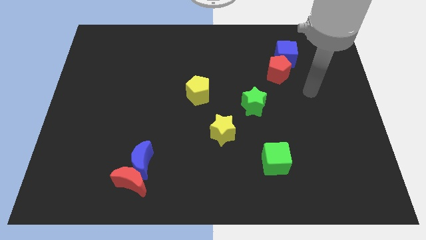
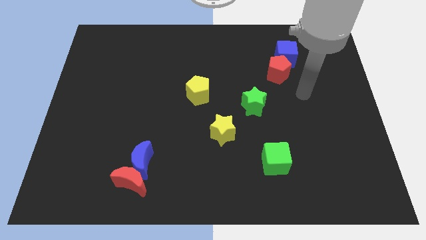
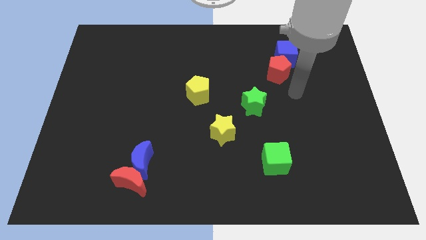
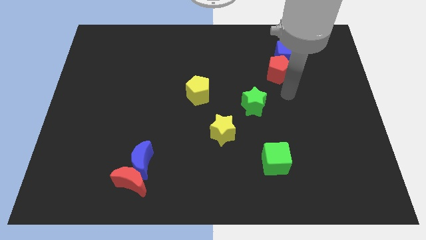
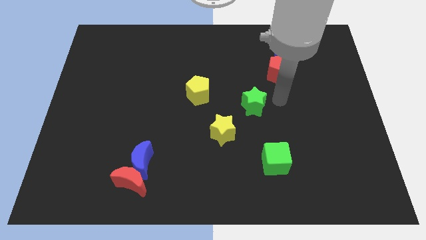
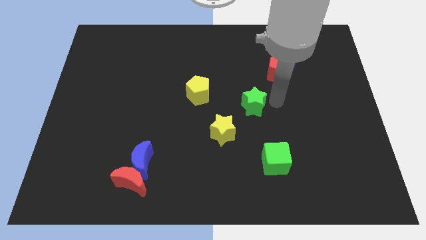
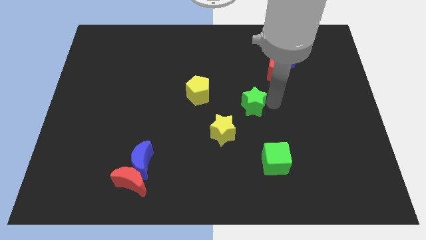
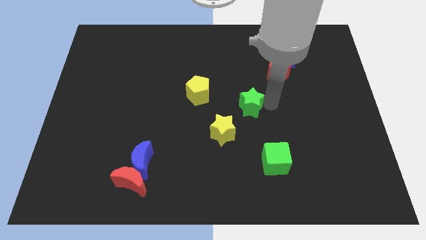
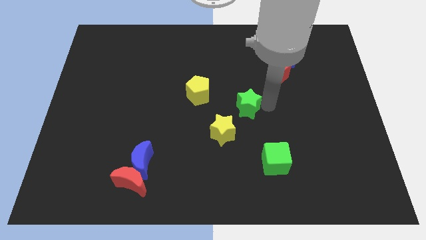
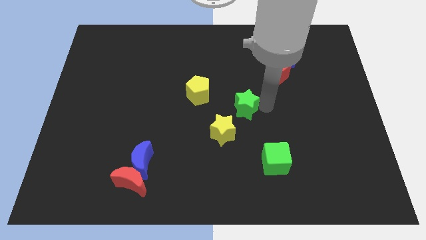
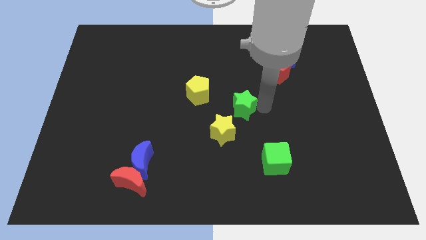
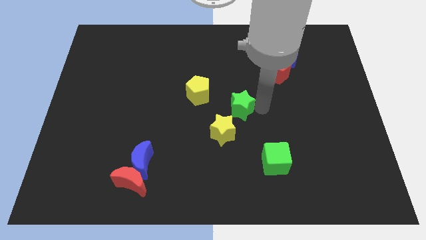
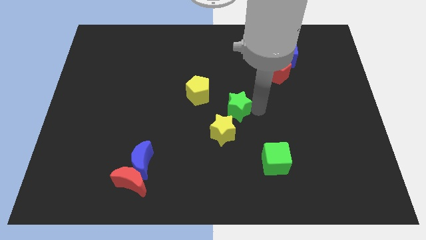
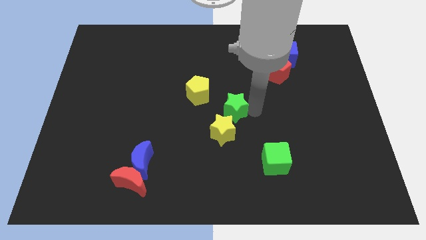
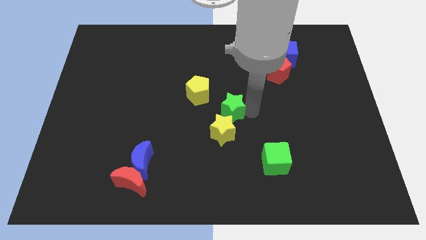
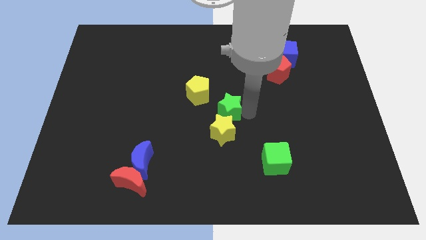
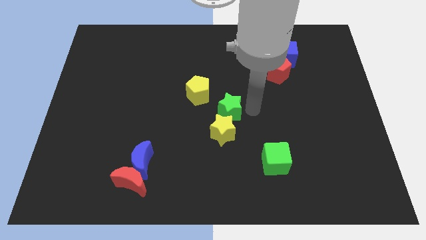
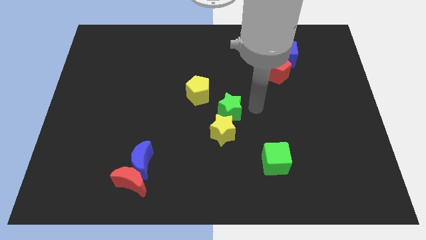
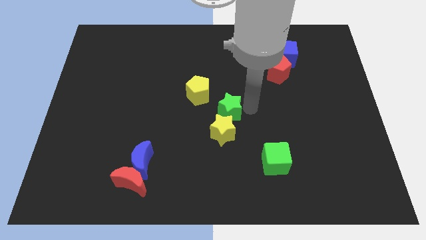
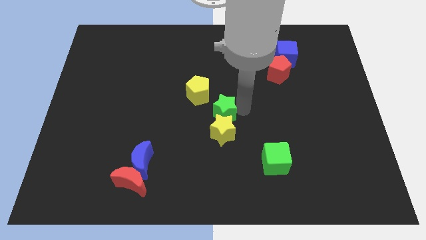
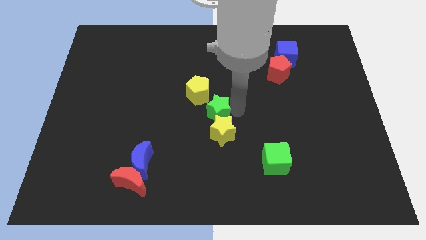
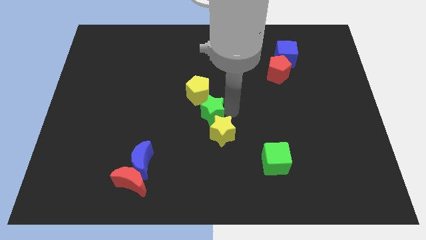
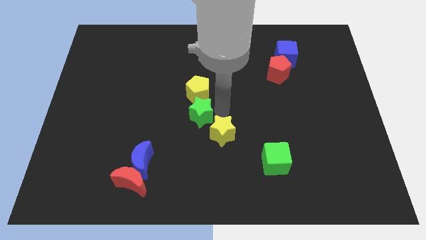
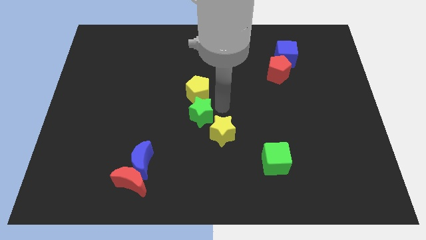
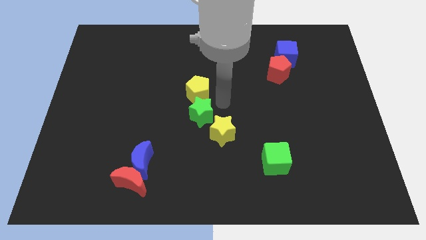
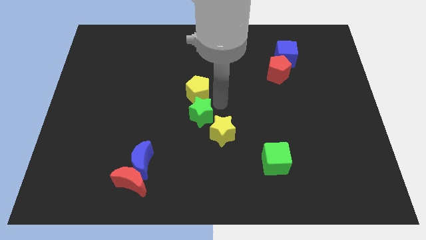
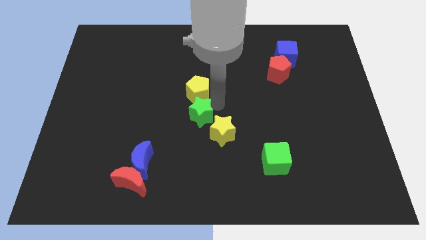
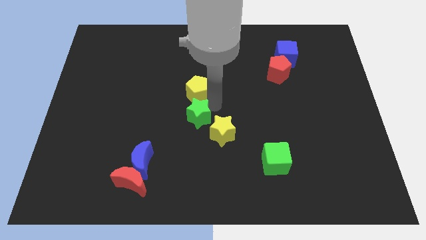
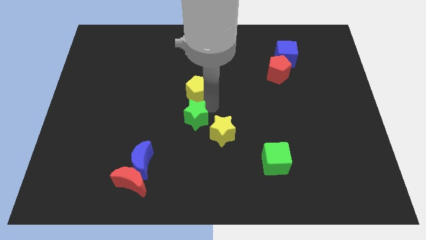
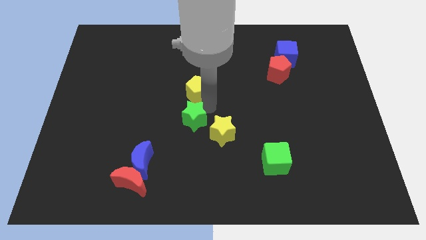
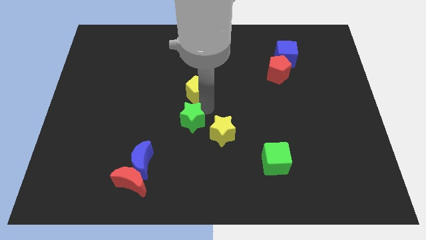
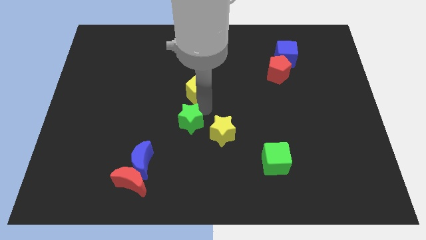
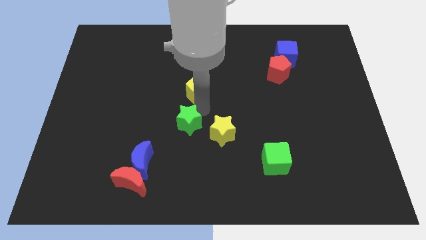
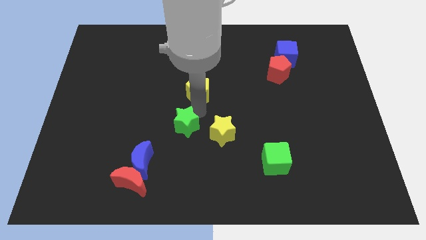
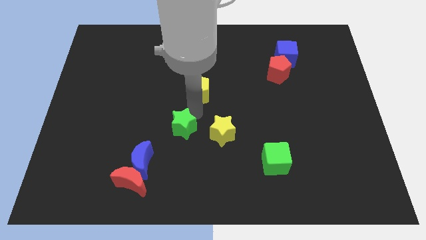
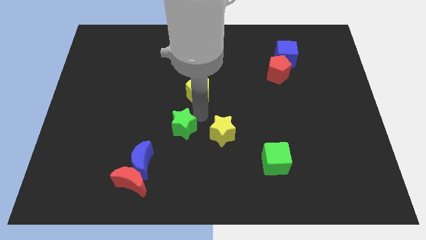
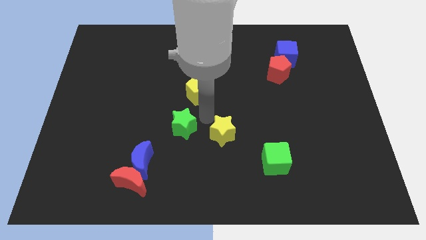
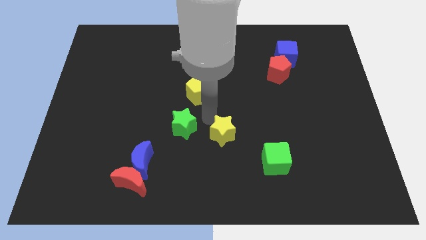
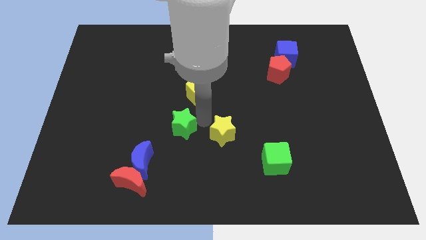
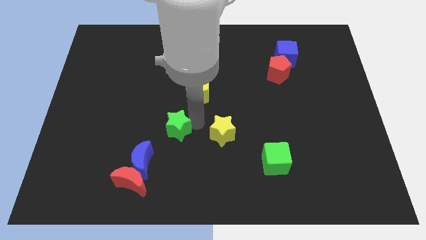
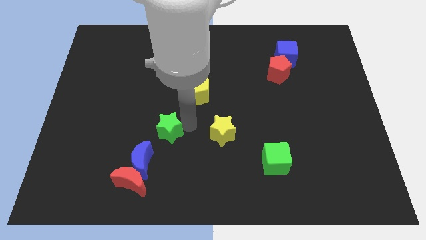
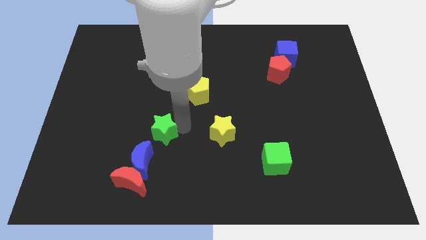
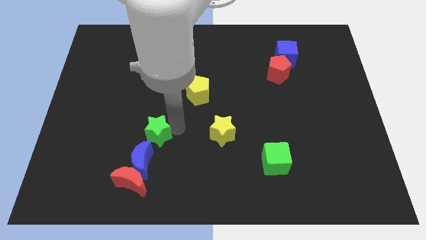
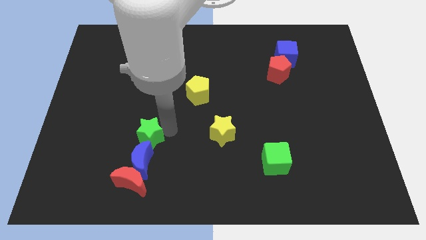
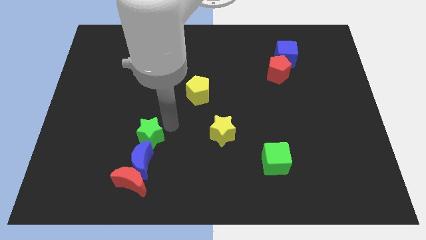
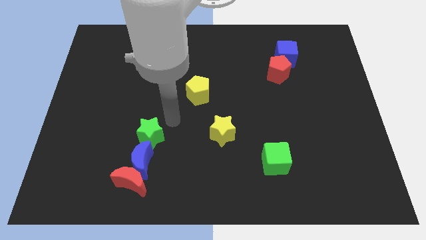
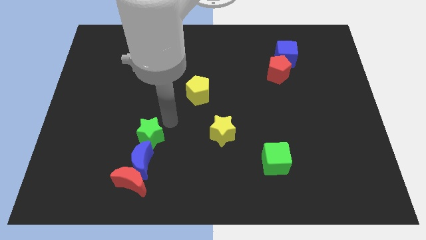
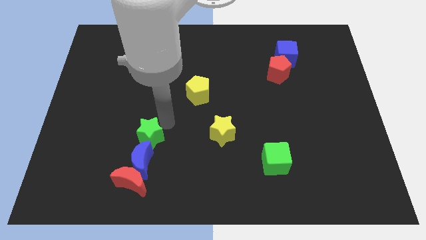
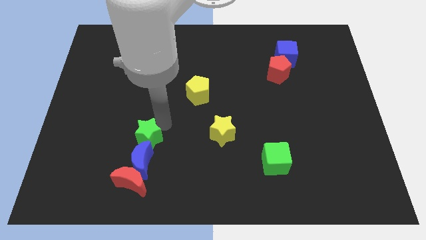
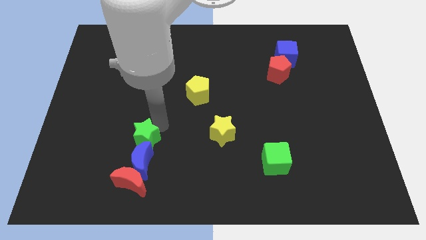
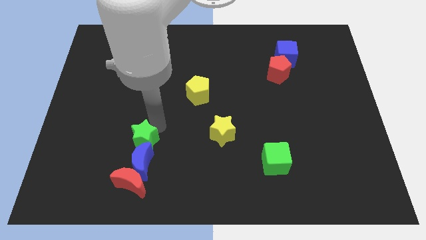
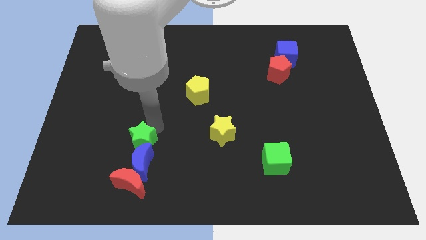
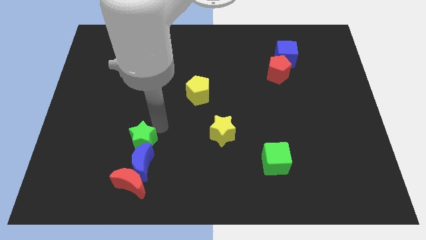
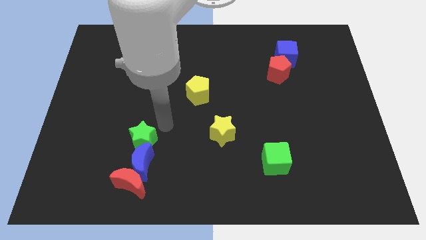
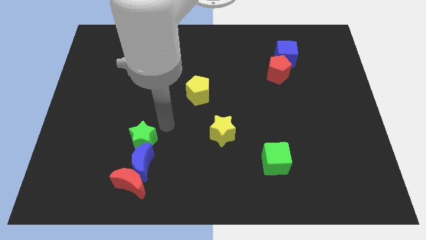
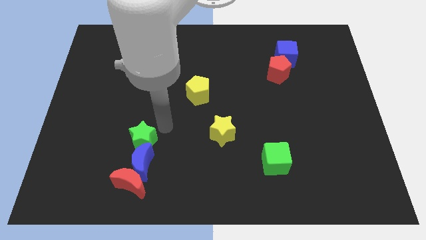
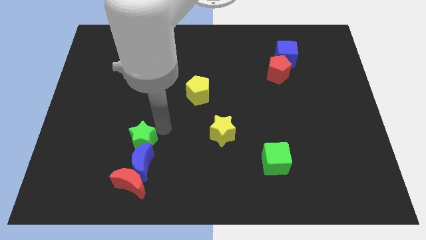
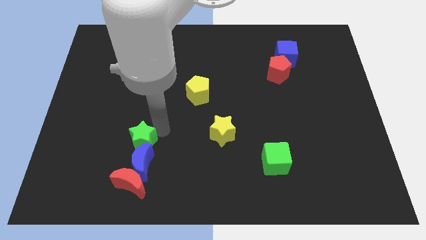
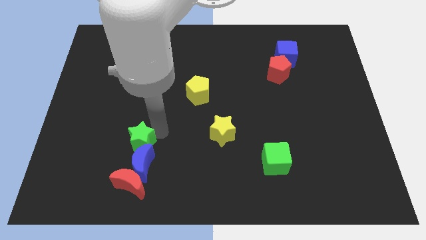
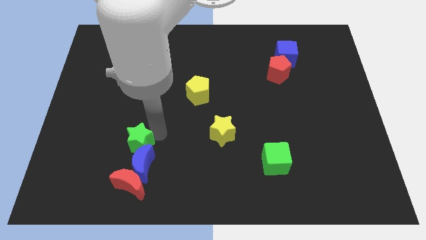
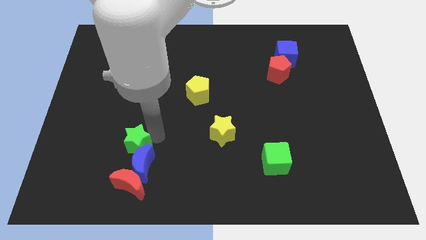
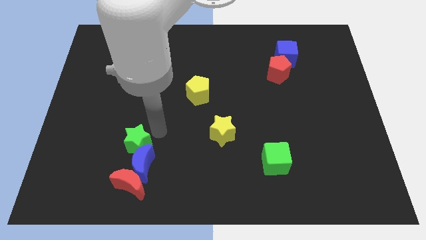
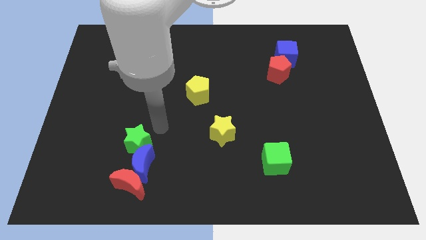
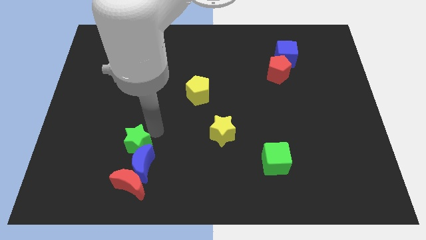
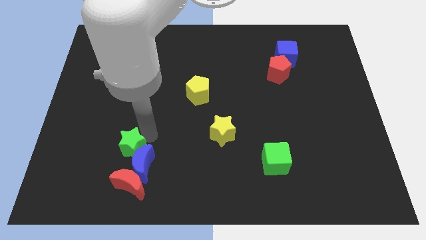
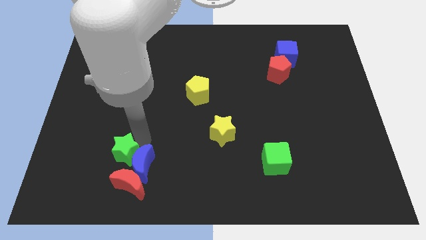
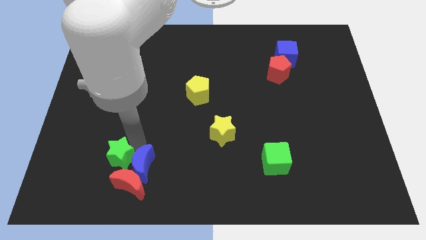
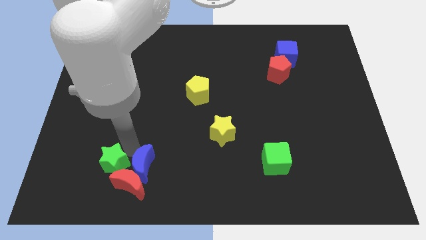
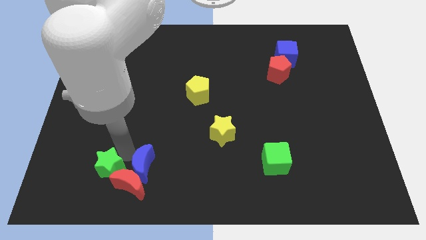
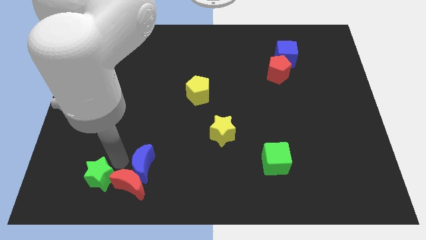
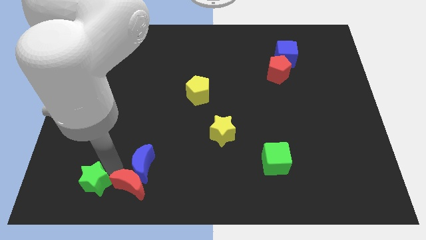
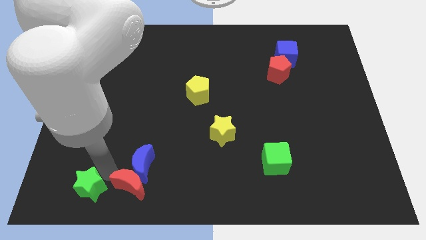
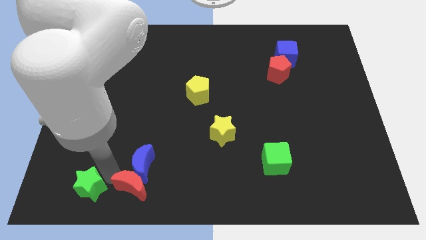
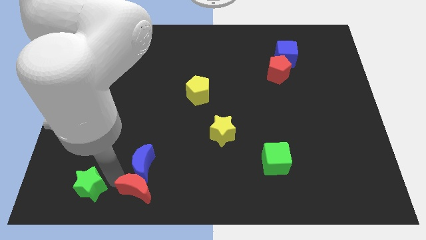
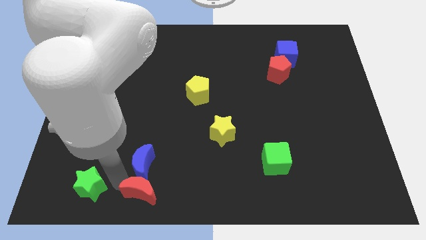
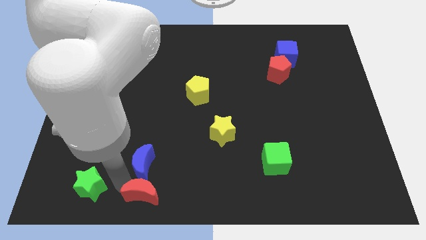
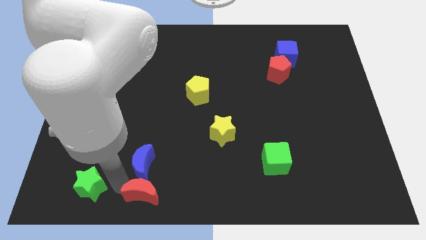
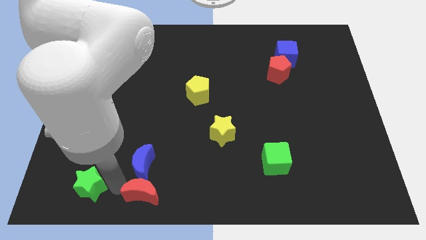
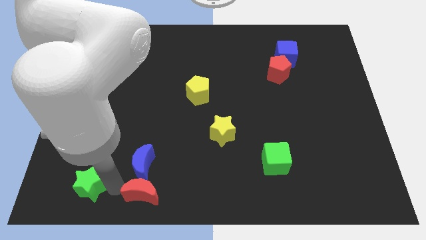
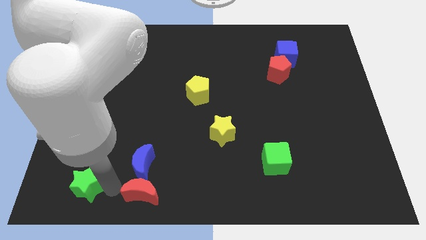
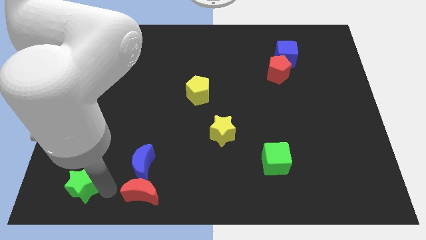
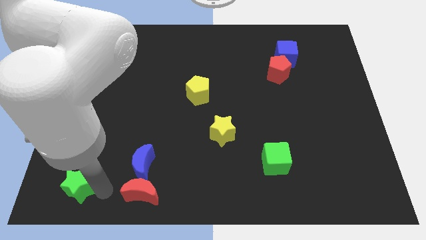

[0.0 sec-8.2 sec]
move the green star to the bottom left of the board
